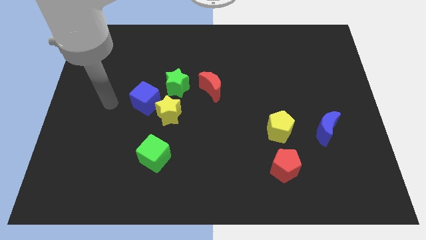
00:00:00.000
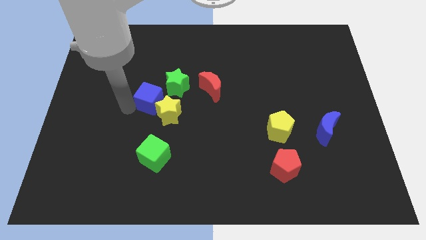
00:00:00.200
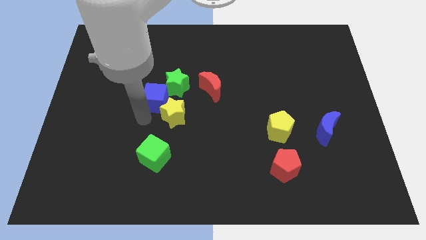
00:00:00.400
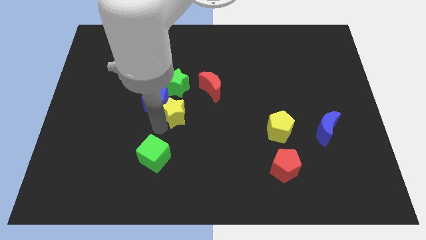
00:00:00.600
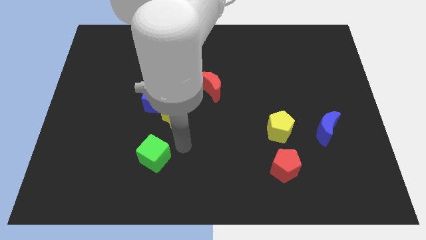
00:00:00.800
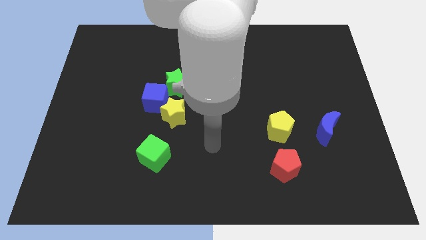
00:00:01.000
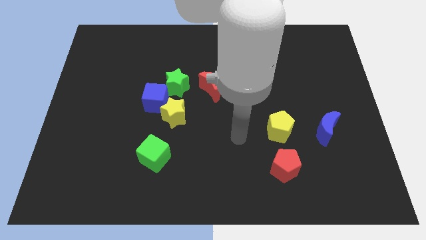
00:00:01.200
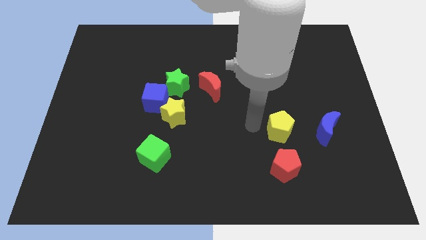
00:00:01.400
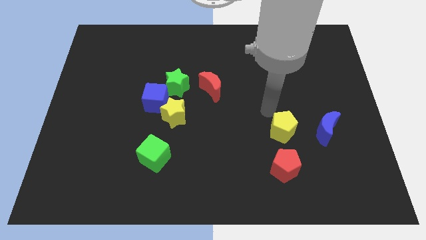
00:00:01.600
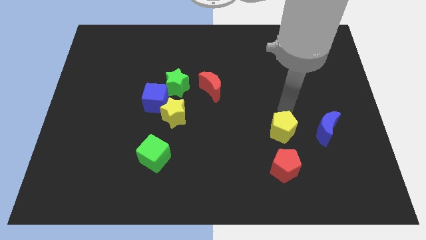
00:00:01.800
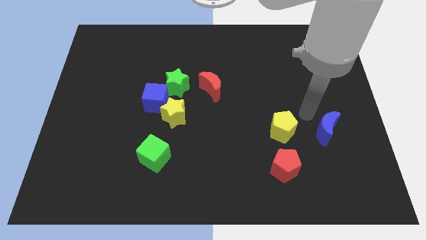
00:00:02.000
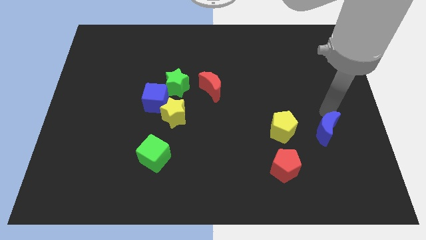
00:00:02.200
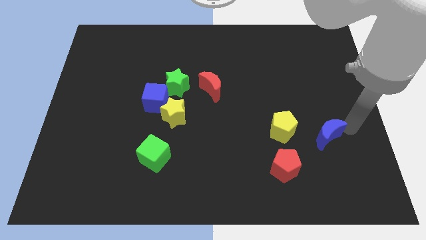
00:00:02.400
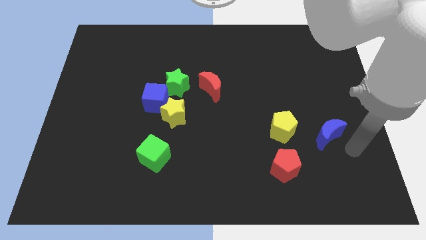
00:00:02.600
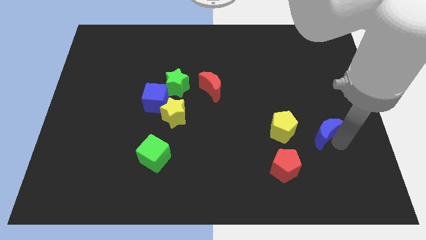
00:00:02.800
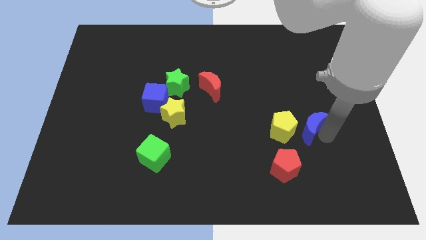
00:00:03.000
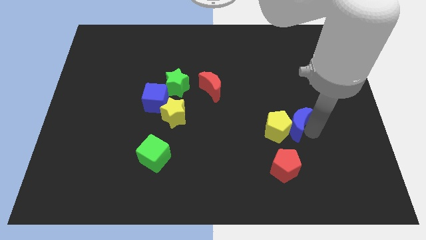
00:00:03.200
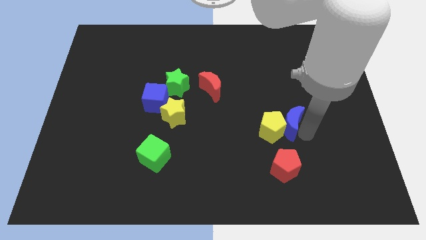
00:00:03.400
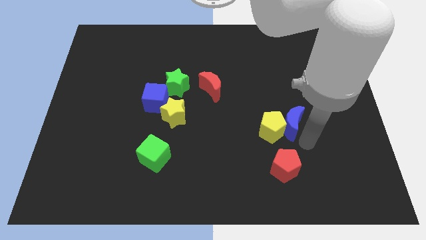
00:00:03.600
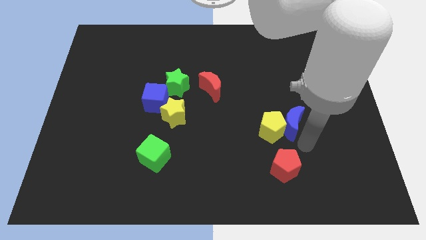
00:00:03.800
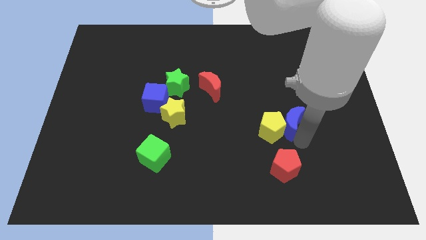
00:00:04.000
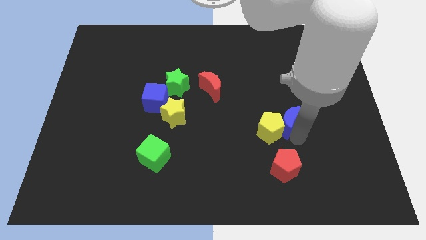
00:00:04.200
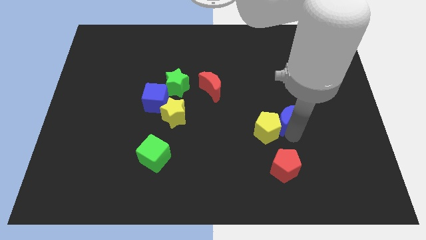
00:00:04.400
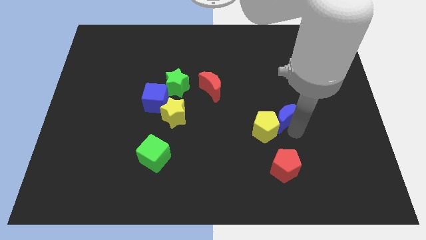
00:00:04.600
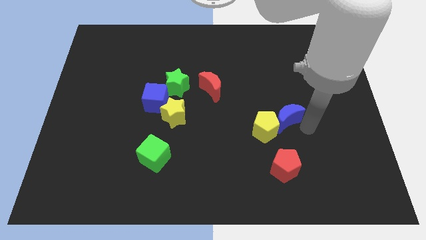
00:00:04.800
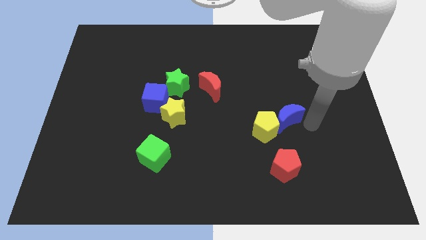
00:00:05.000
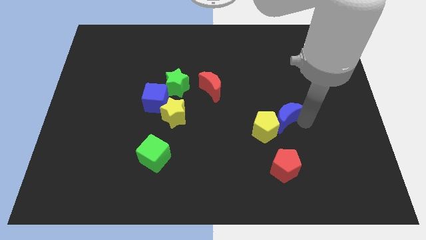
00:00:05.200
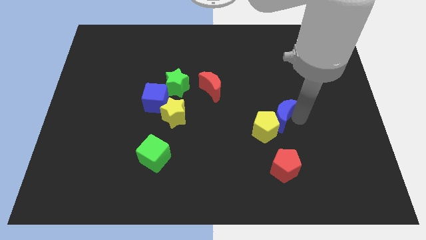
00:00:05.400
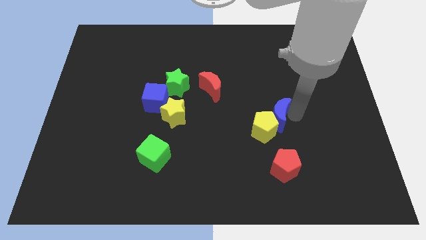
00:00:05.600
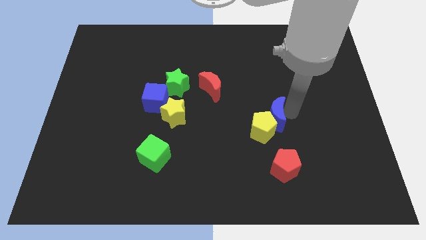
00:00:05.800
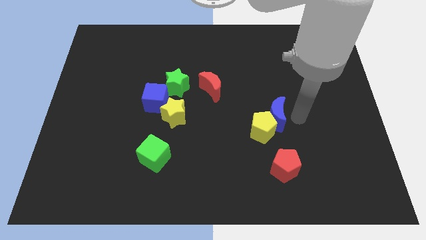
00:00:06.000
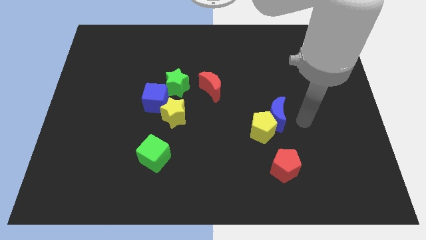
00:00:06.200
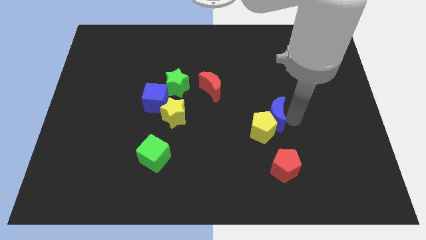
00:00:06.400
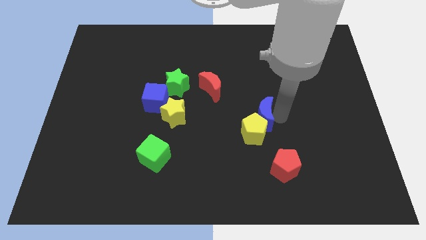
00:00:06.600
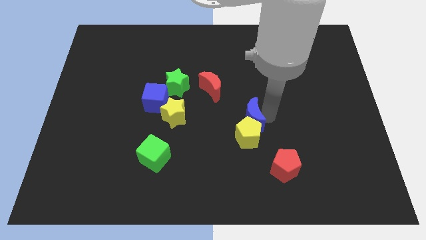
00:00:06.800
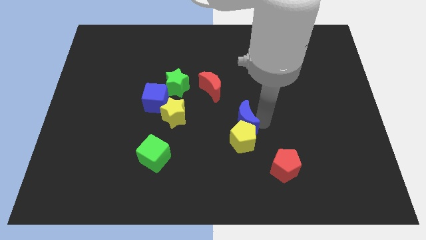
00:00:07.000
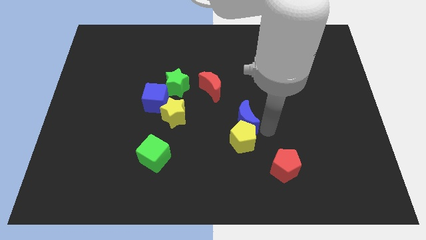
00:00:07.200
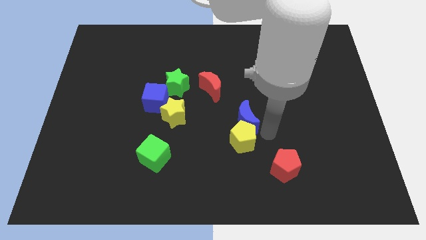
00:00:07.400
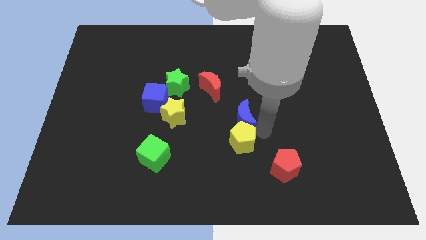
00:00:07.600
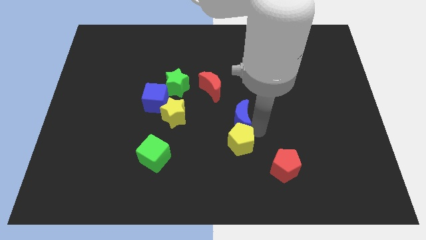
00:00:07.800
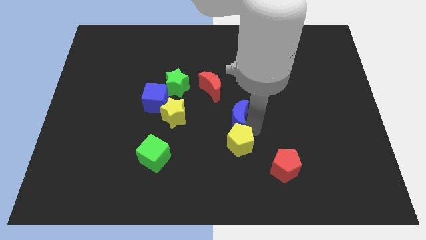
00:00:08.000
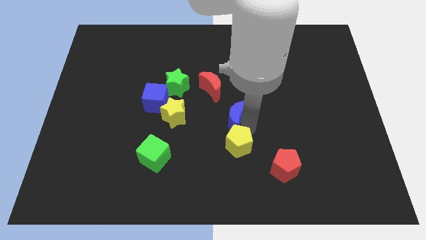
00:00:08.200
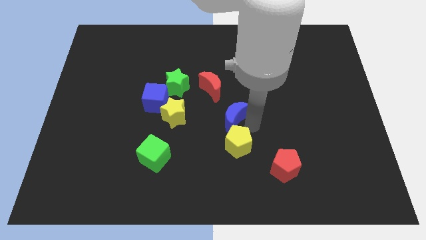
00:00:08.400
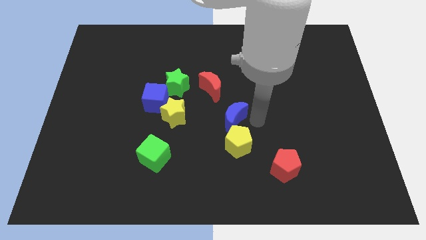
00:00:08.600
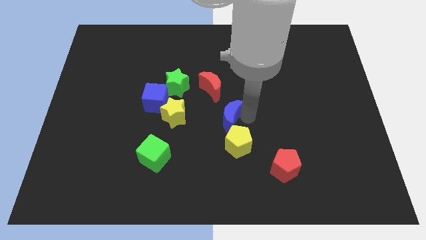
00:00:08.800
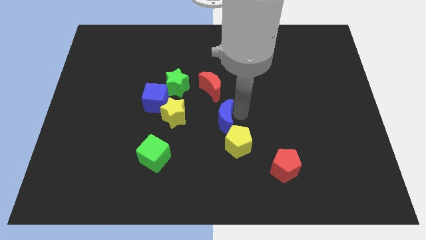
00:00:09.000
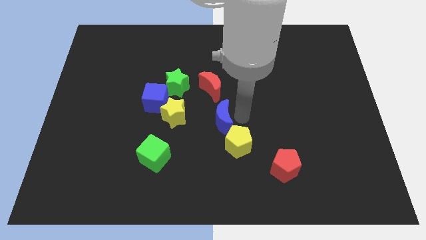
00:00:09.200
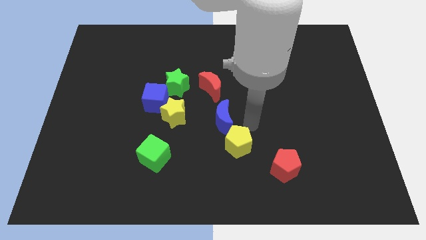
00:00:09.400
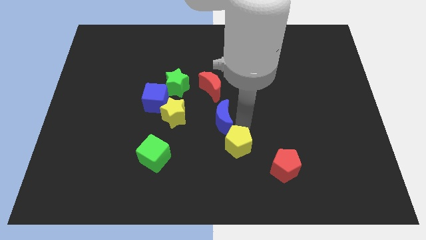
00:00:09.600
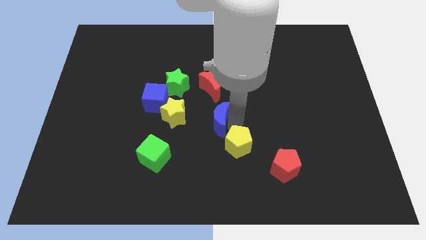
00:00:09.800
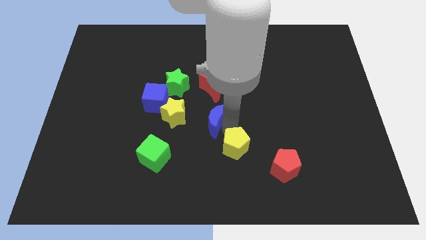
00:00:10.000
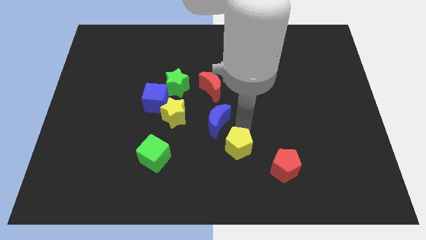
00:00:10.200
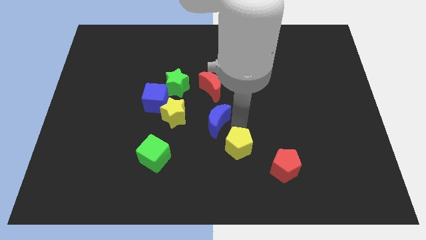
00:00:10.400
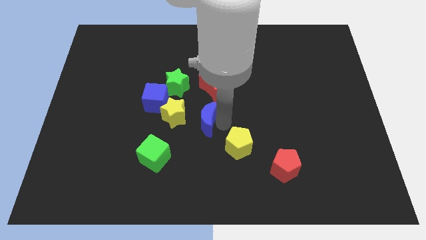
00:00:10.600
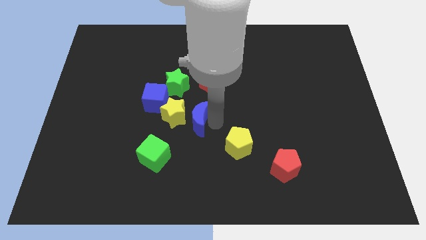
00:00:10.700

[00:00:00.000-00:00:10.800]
move the blue moon next to the yellow star

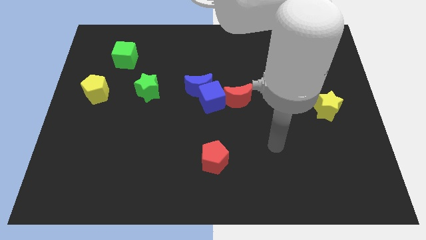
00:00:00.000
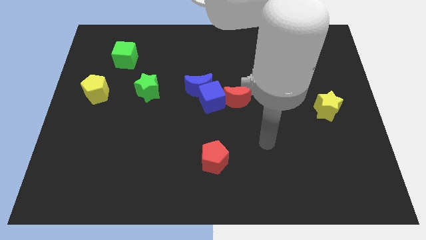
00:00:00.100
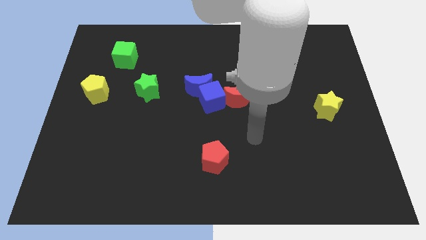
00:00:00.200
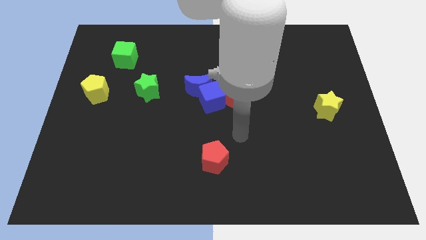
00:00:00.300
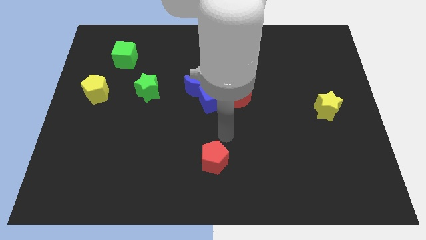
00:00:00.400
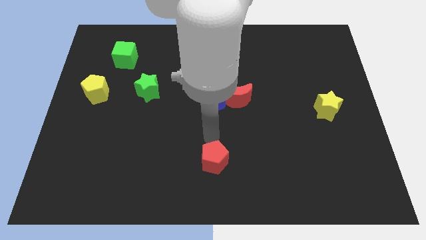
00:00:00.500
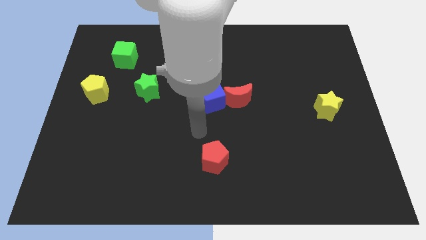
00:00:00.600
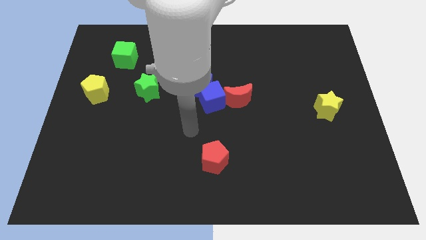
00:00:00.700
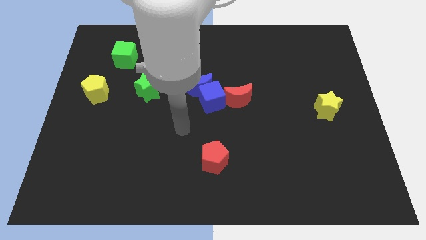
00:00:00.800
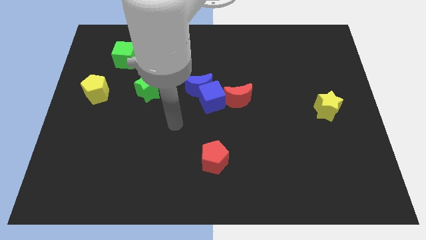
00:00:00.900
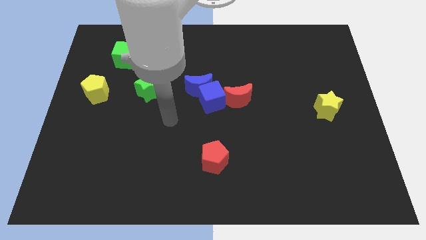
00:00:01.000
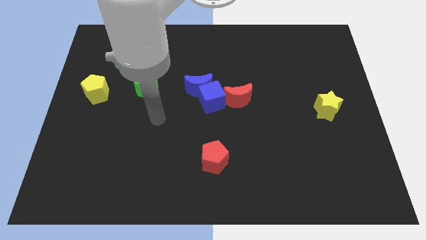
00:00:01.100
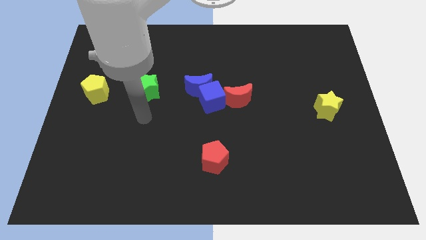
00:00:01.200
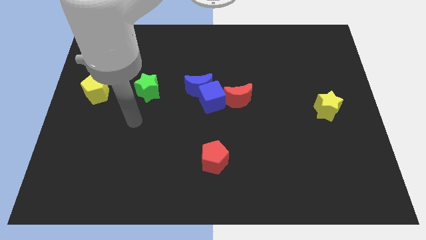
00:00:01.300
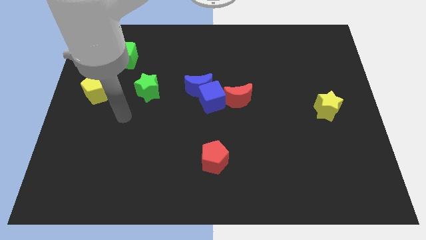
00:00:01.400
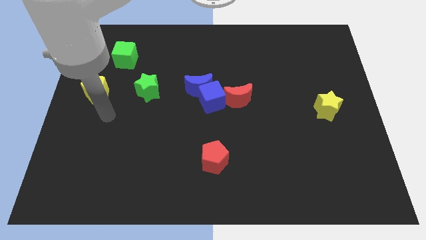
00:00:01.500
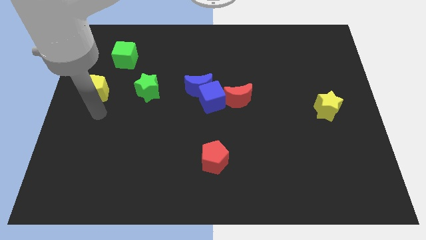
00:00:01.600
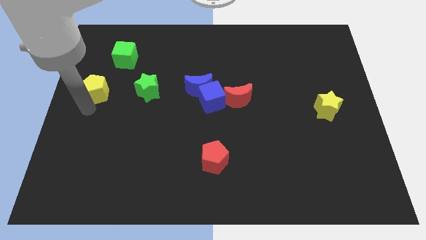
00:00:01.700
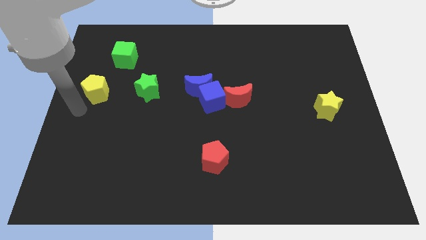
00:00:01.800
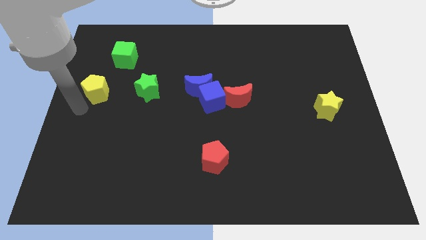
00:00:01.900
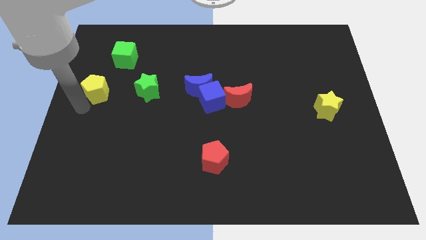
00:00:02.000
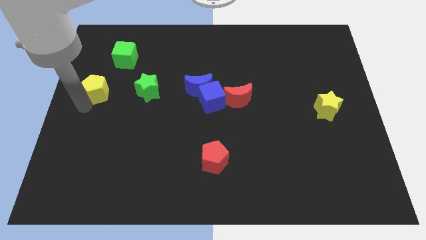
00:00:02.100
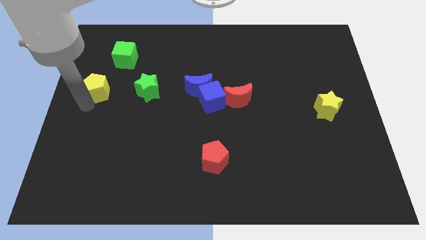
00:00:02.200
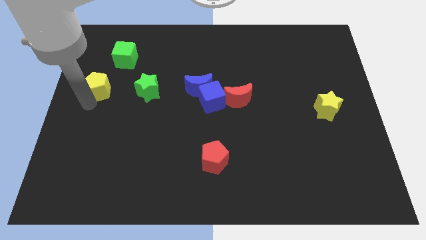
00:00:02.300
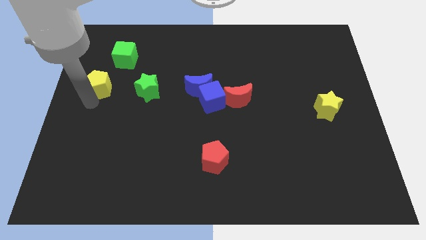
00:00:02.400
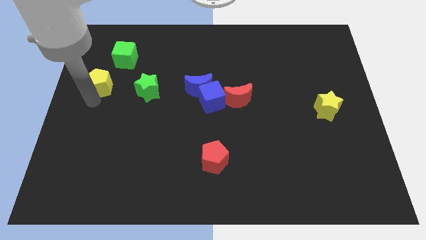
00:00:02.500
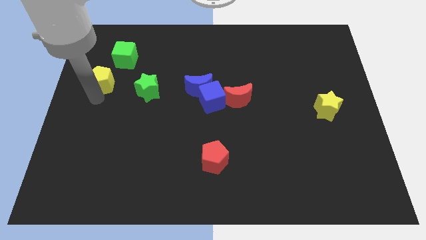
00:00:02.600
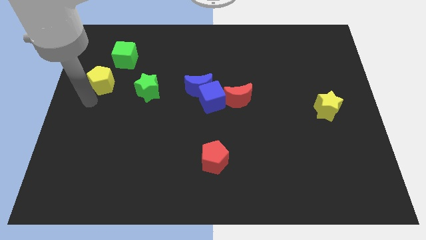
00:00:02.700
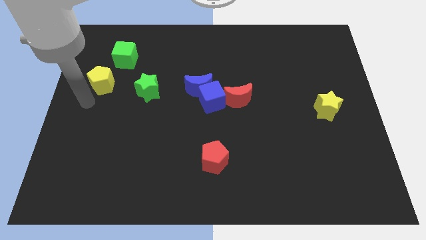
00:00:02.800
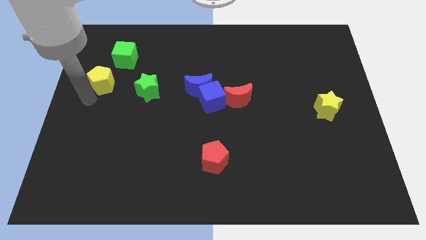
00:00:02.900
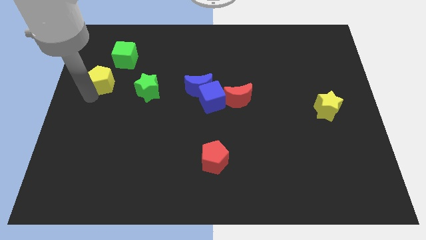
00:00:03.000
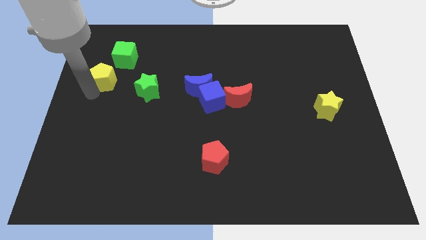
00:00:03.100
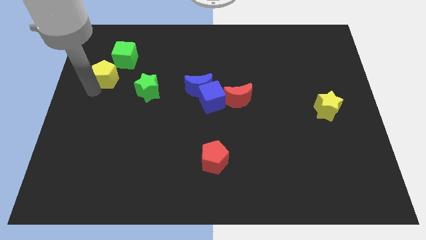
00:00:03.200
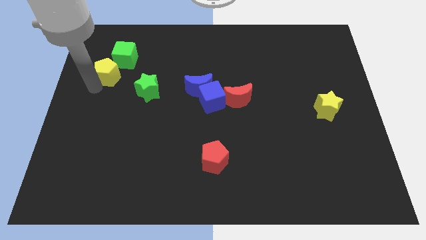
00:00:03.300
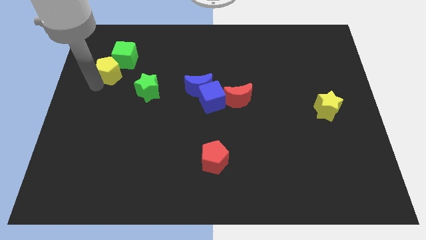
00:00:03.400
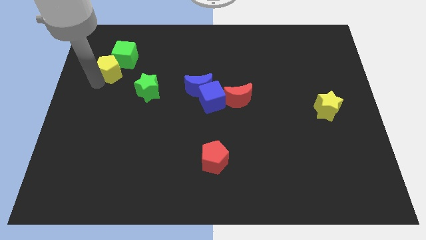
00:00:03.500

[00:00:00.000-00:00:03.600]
put the yellow pentagon to the green cube
